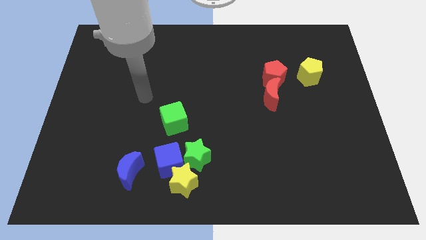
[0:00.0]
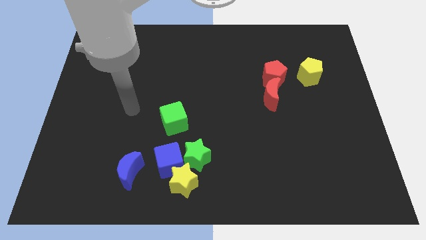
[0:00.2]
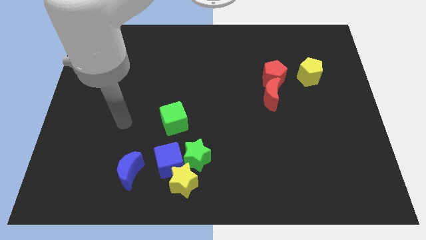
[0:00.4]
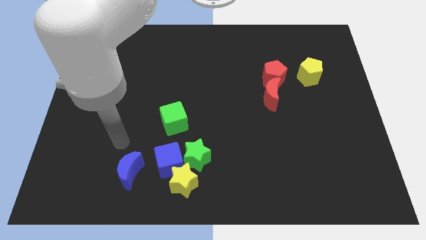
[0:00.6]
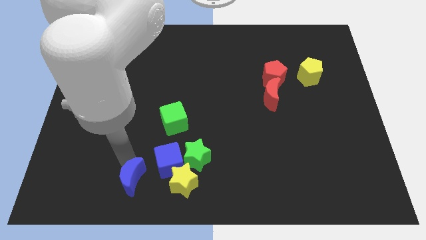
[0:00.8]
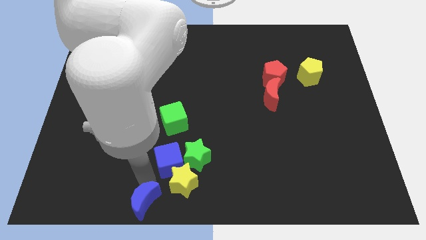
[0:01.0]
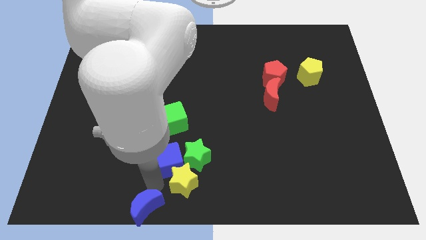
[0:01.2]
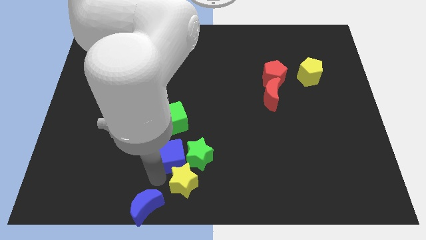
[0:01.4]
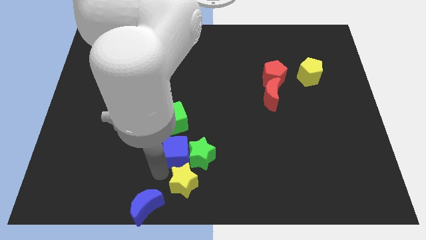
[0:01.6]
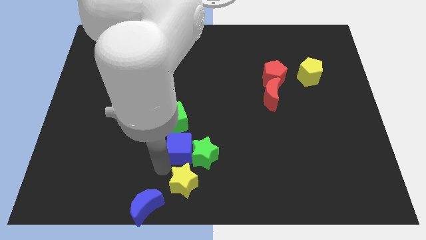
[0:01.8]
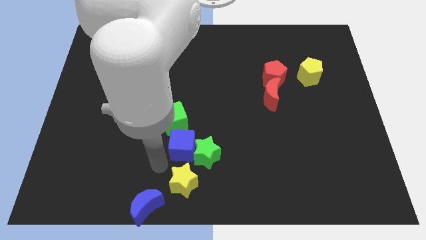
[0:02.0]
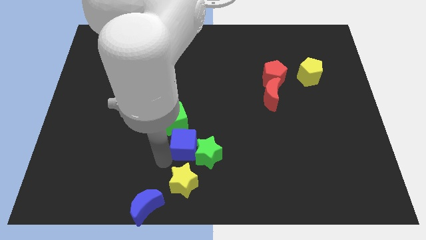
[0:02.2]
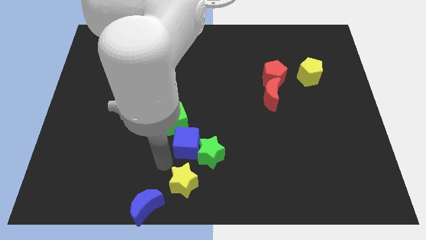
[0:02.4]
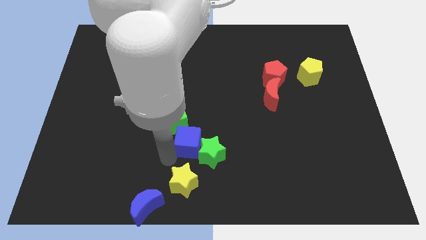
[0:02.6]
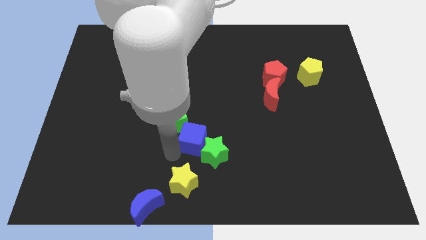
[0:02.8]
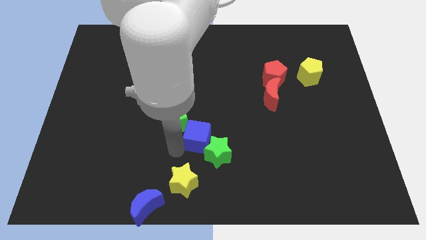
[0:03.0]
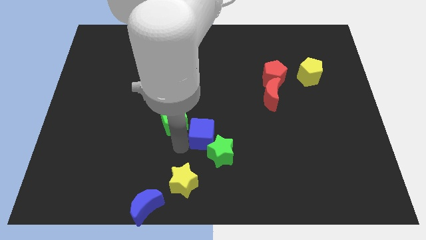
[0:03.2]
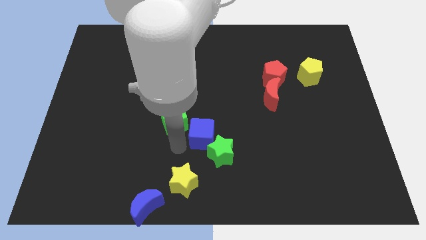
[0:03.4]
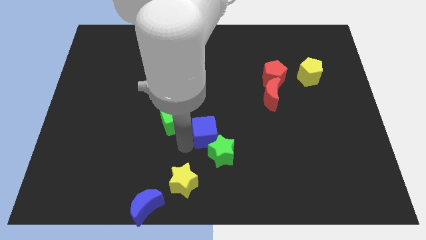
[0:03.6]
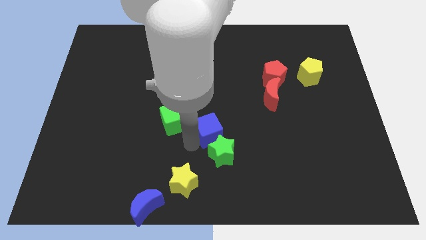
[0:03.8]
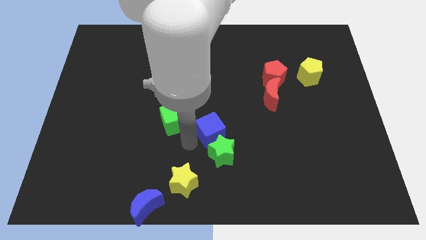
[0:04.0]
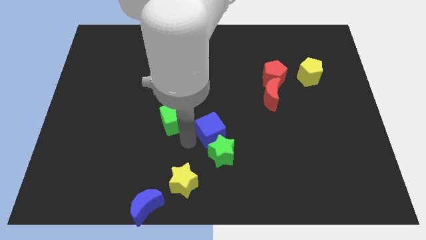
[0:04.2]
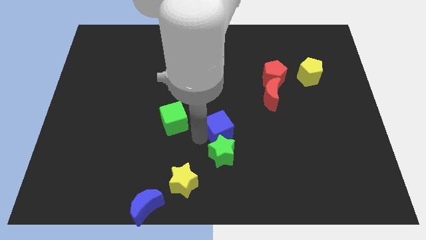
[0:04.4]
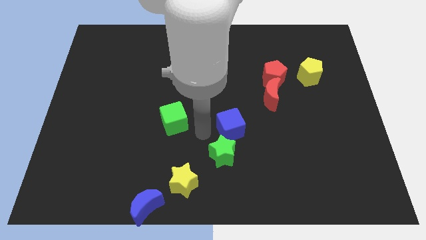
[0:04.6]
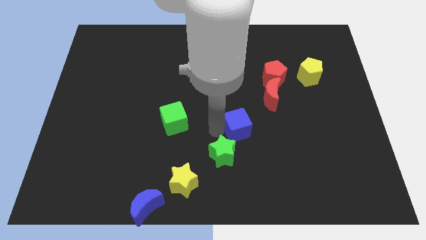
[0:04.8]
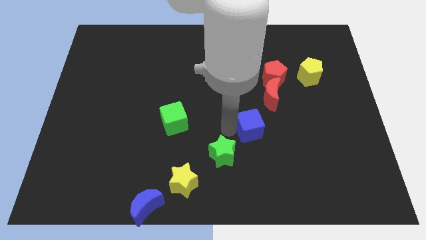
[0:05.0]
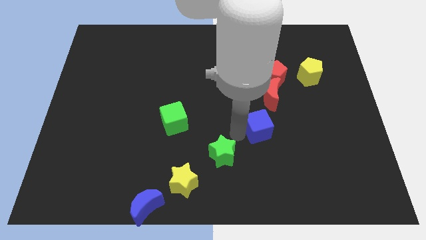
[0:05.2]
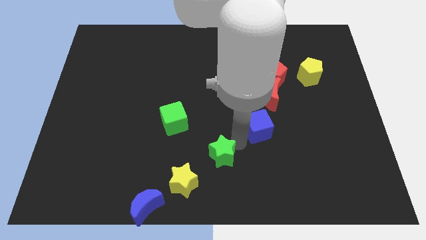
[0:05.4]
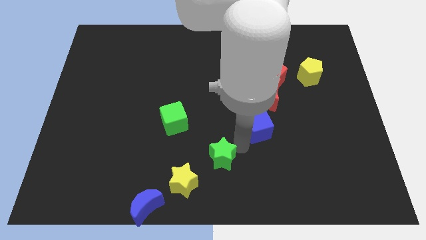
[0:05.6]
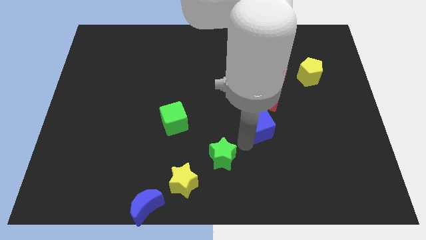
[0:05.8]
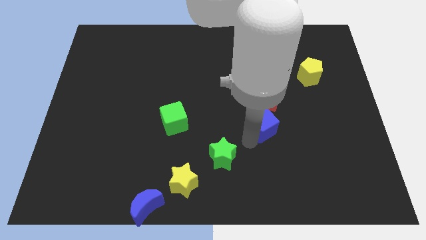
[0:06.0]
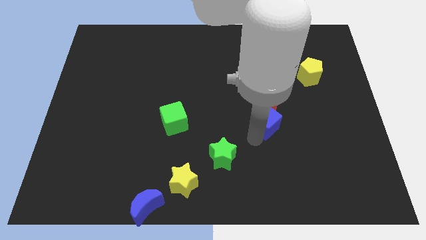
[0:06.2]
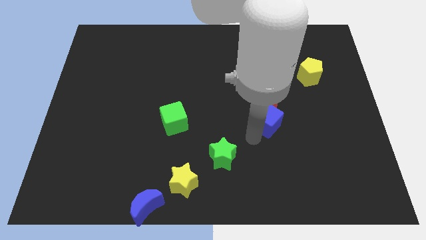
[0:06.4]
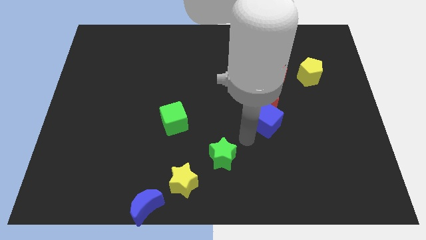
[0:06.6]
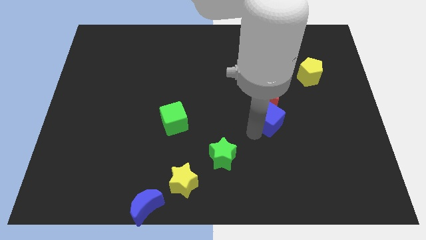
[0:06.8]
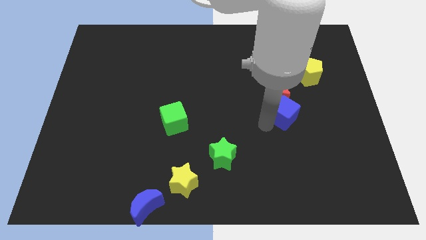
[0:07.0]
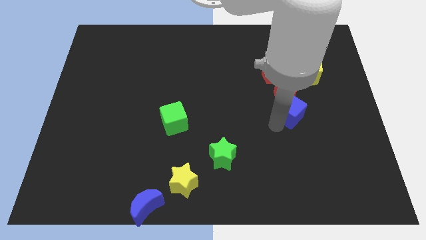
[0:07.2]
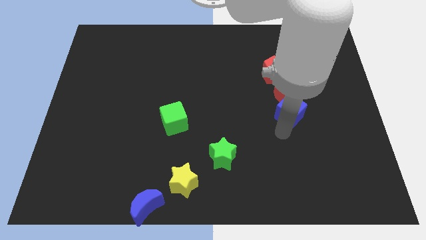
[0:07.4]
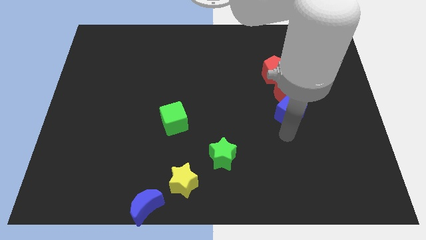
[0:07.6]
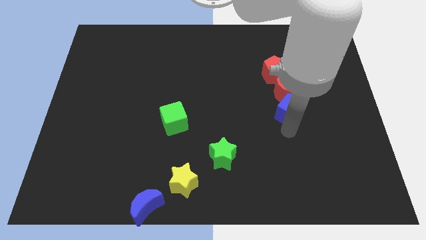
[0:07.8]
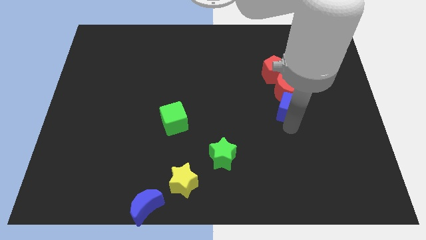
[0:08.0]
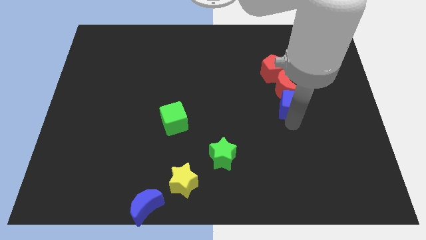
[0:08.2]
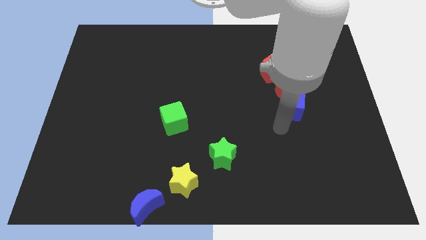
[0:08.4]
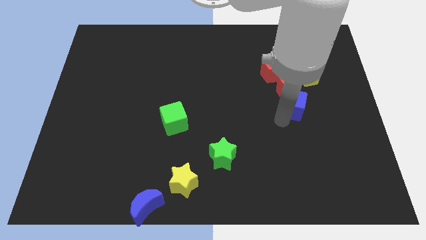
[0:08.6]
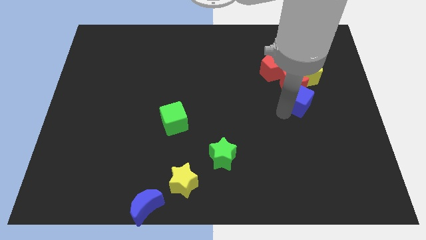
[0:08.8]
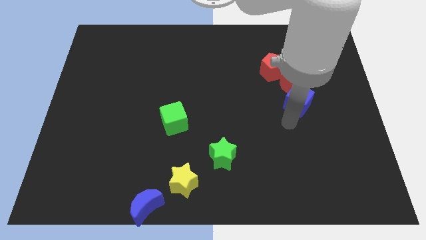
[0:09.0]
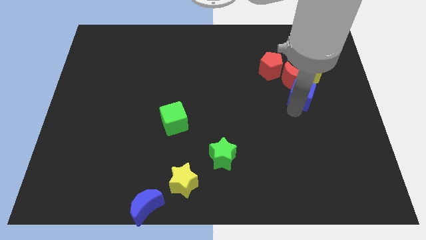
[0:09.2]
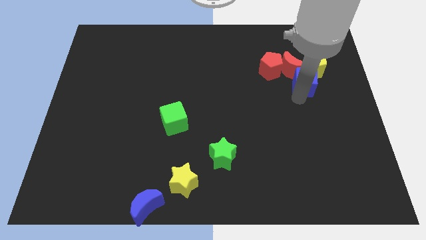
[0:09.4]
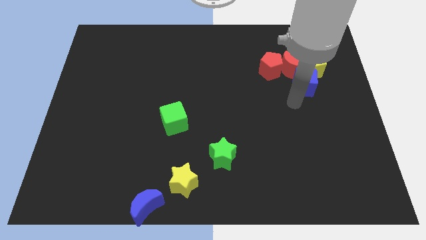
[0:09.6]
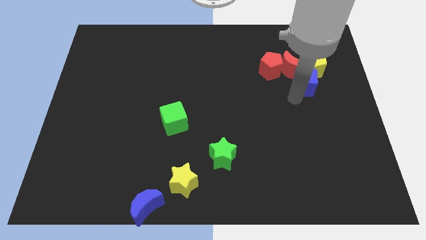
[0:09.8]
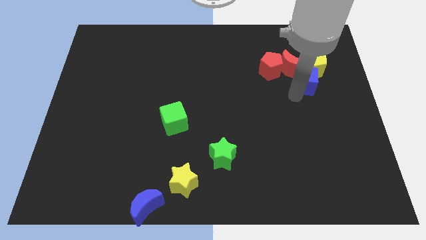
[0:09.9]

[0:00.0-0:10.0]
slide the blue cube next to the yellow pentagon

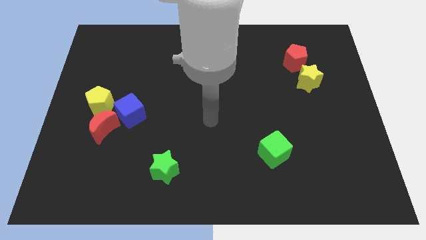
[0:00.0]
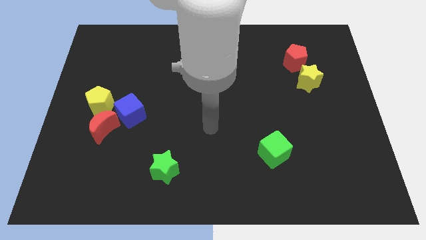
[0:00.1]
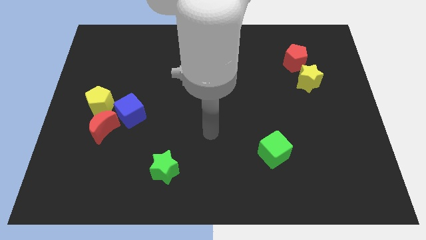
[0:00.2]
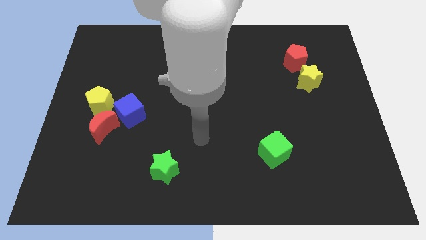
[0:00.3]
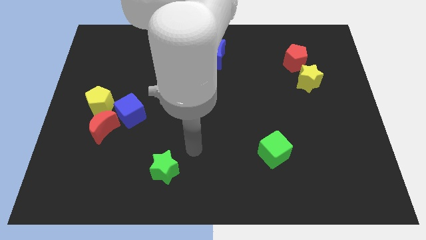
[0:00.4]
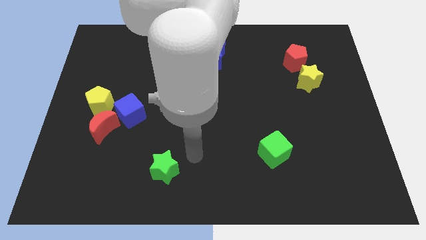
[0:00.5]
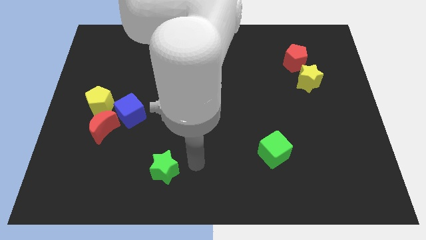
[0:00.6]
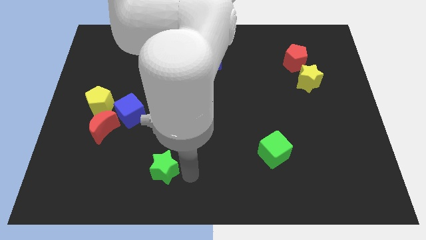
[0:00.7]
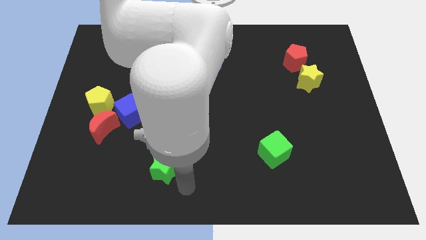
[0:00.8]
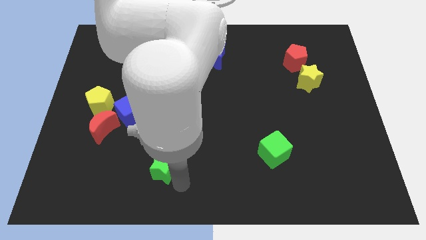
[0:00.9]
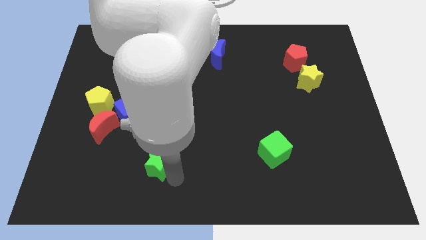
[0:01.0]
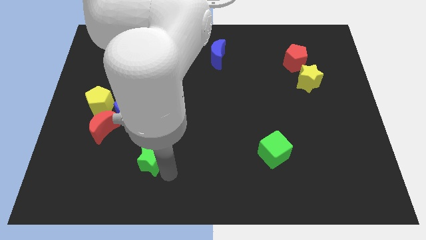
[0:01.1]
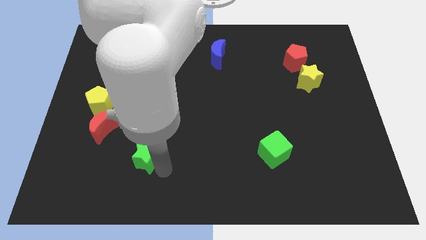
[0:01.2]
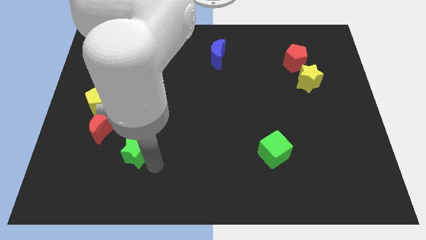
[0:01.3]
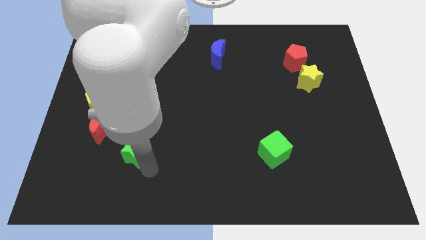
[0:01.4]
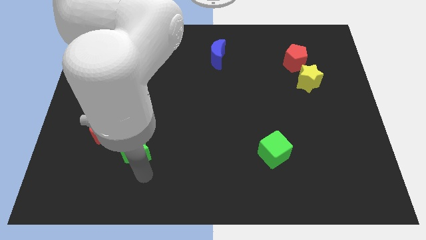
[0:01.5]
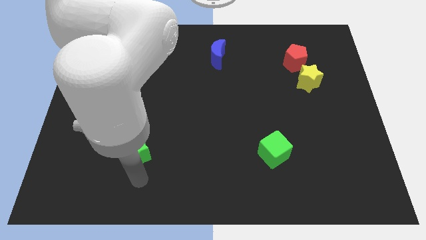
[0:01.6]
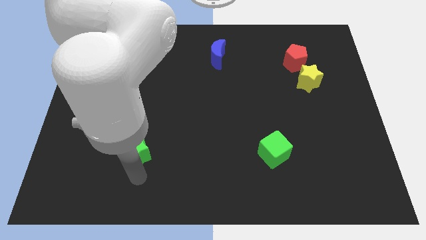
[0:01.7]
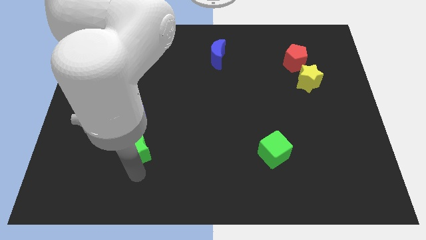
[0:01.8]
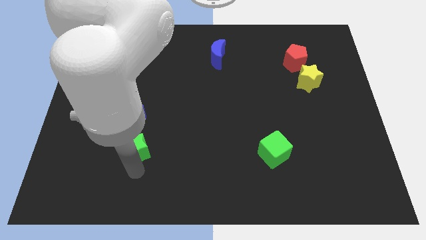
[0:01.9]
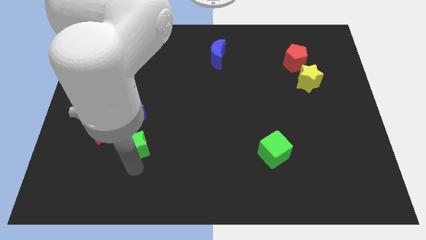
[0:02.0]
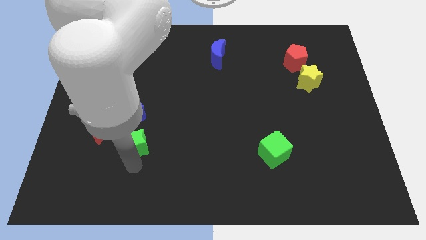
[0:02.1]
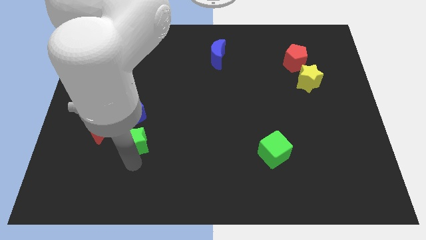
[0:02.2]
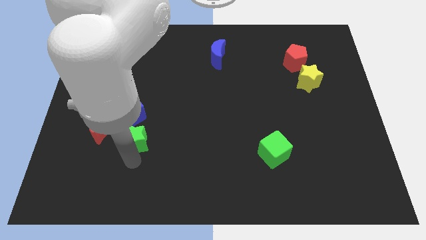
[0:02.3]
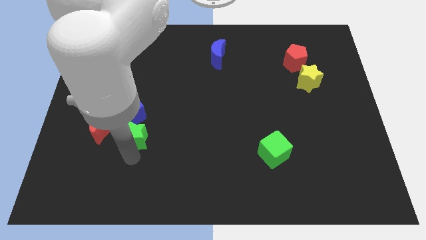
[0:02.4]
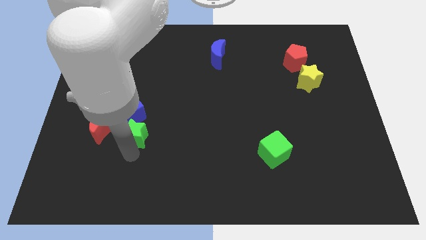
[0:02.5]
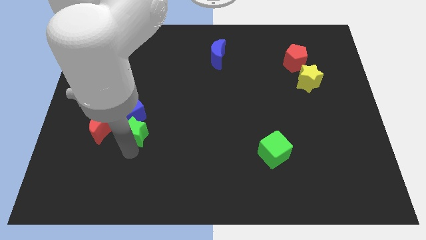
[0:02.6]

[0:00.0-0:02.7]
move the green star next to the blue cube
